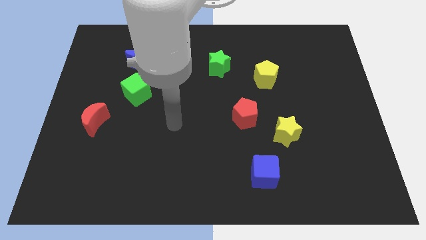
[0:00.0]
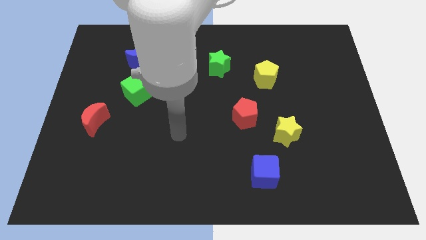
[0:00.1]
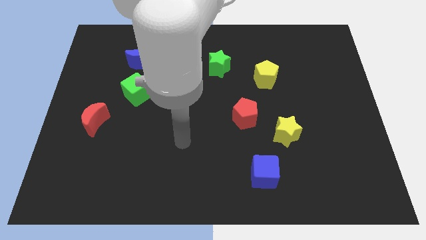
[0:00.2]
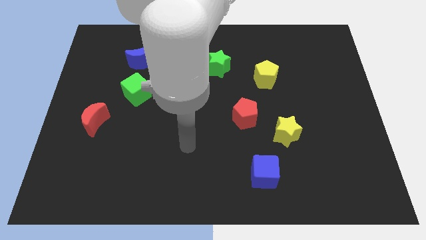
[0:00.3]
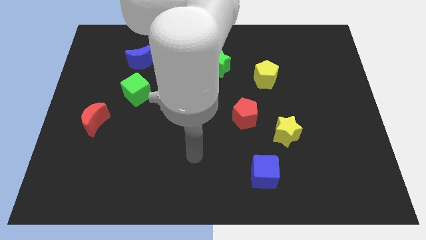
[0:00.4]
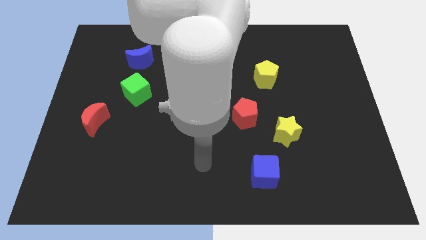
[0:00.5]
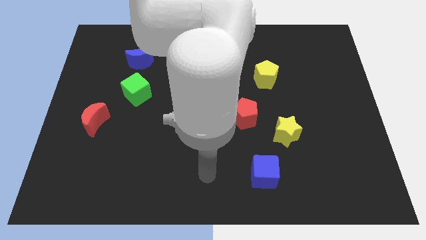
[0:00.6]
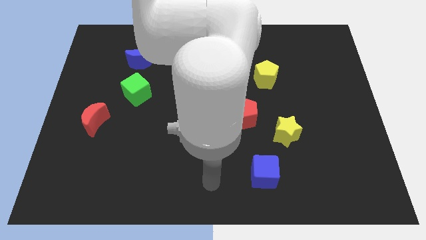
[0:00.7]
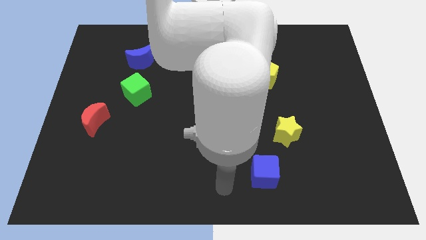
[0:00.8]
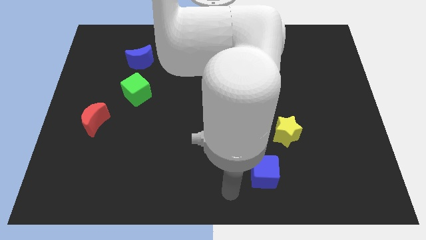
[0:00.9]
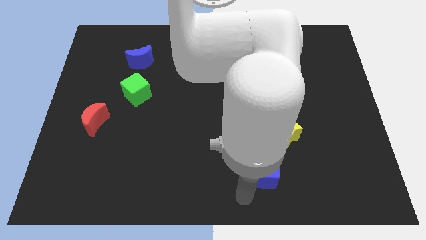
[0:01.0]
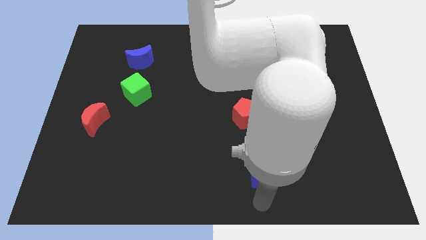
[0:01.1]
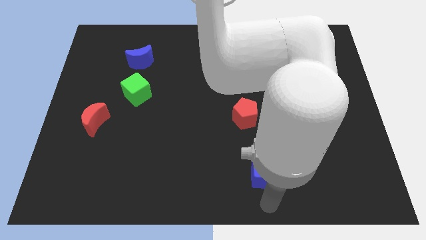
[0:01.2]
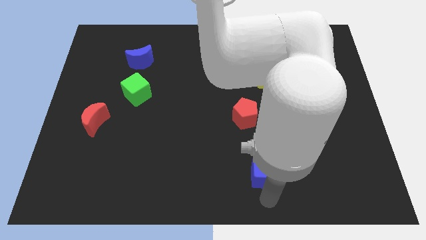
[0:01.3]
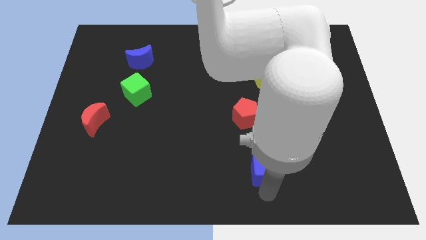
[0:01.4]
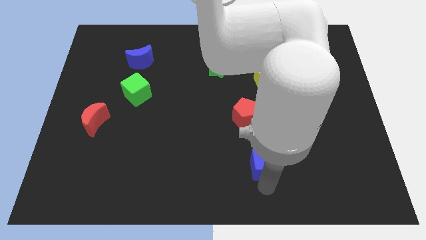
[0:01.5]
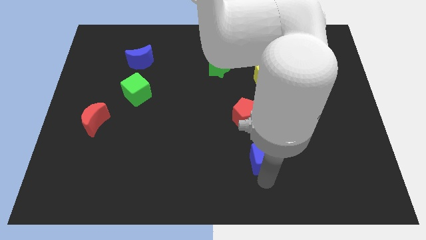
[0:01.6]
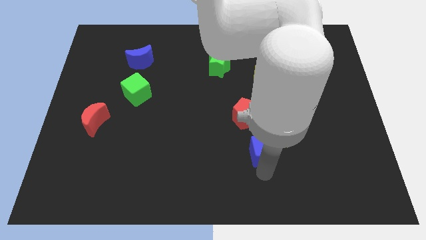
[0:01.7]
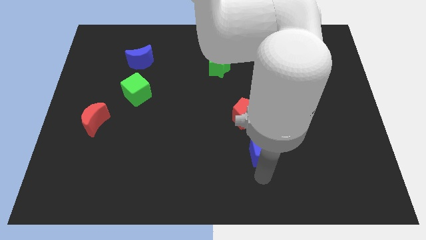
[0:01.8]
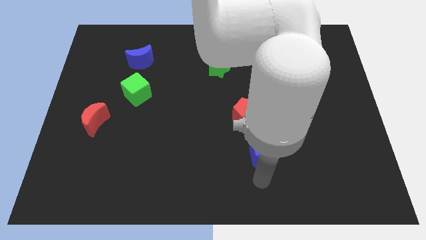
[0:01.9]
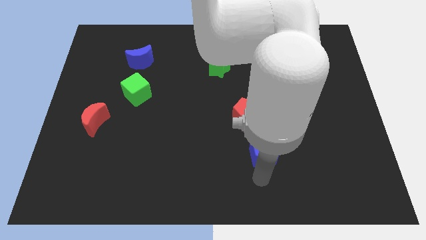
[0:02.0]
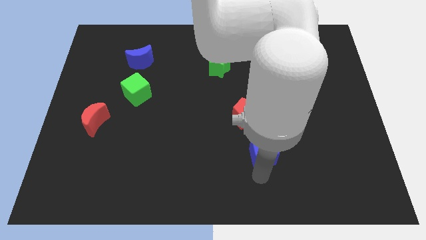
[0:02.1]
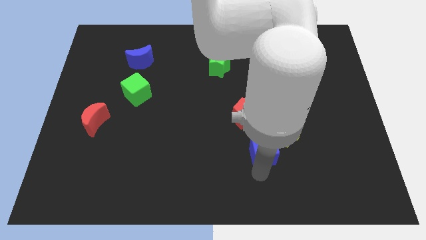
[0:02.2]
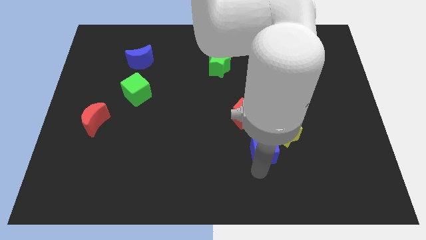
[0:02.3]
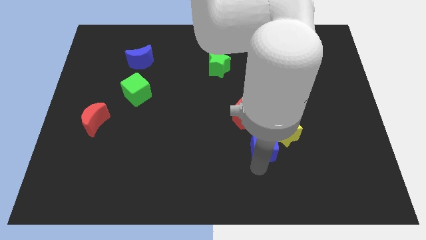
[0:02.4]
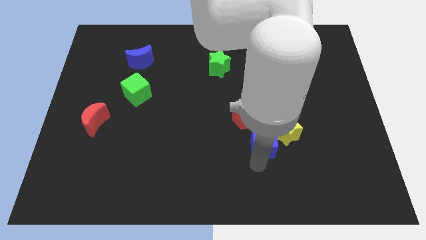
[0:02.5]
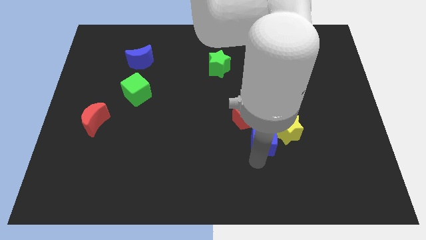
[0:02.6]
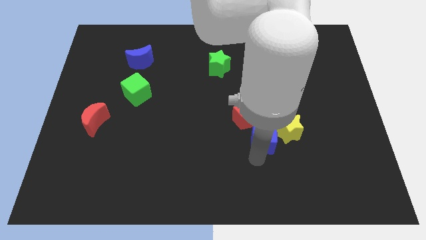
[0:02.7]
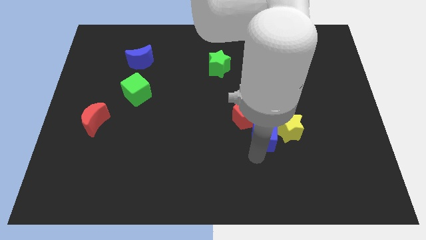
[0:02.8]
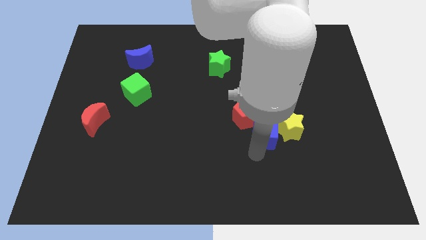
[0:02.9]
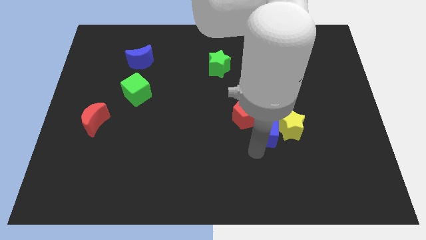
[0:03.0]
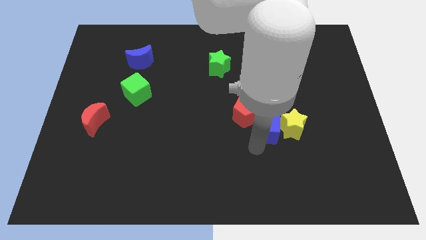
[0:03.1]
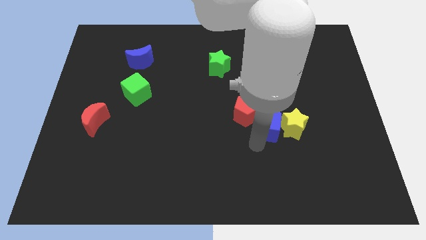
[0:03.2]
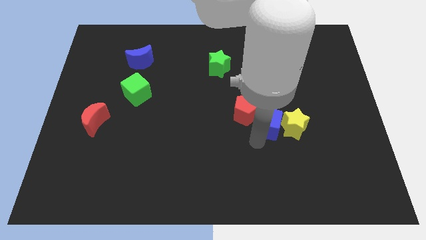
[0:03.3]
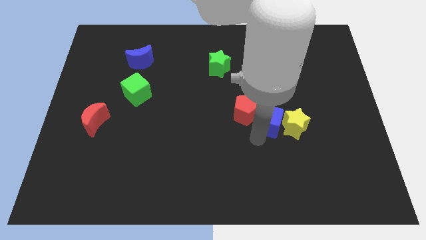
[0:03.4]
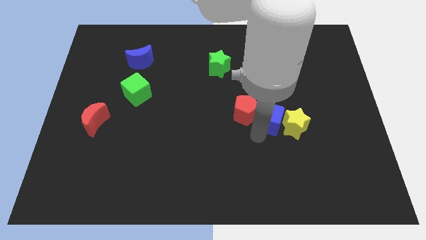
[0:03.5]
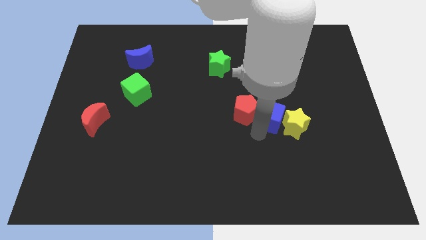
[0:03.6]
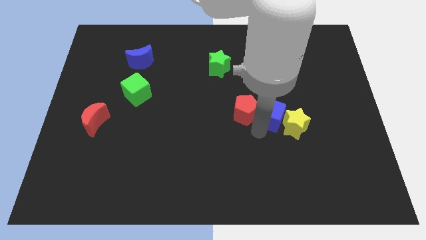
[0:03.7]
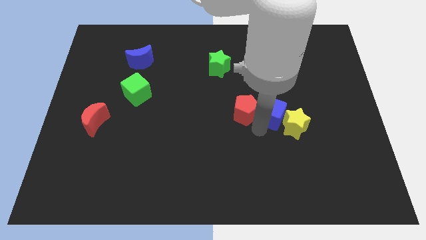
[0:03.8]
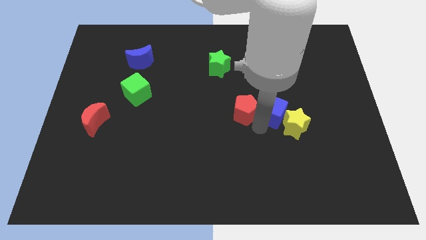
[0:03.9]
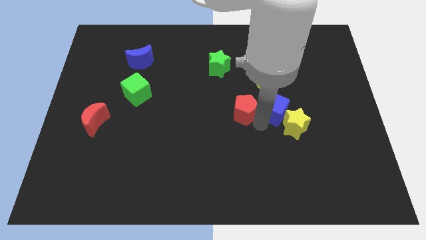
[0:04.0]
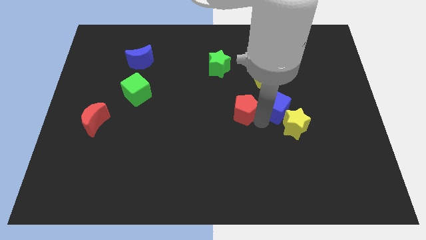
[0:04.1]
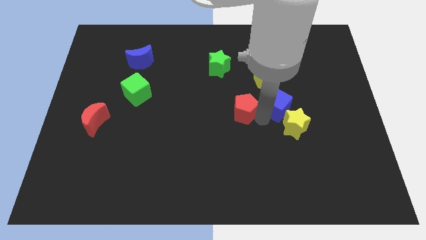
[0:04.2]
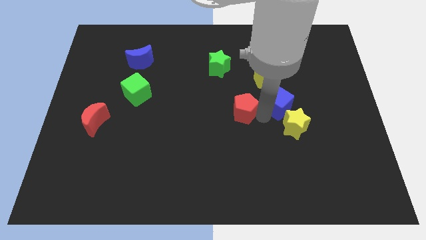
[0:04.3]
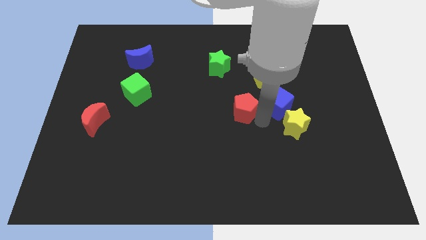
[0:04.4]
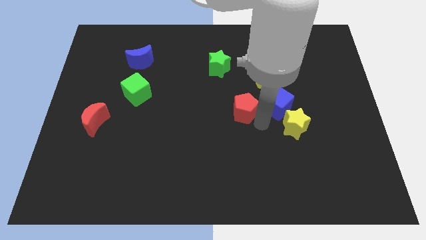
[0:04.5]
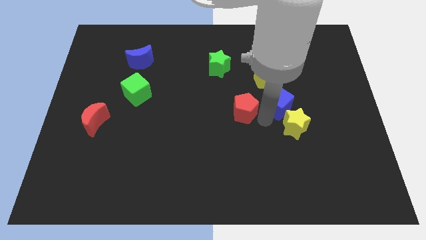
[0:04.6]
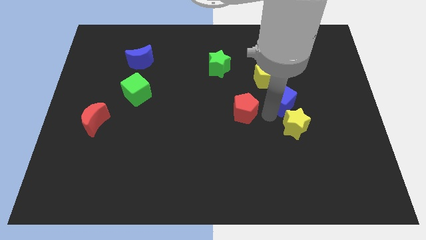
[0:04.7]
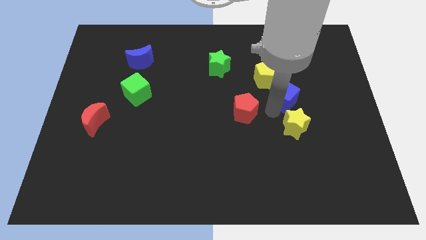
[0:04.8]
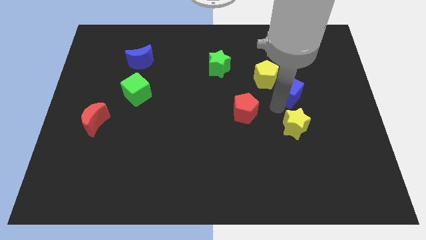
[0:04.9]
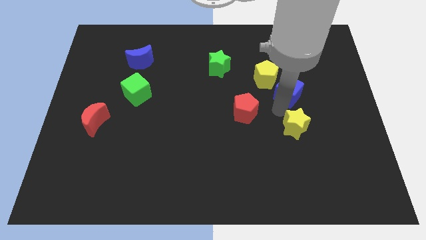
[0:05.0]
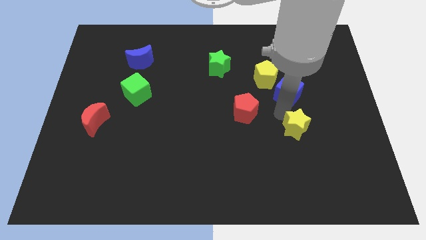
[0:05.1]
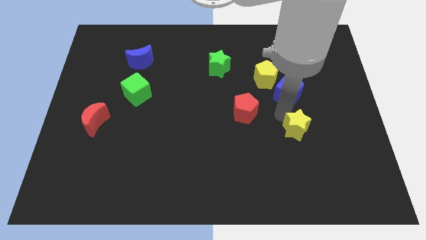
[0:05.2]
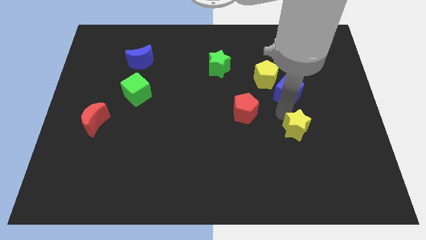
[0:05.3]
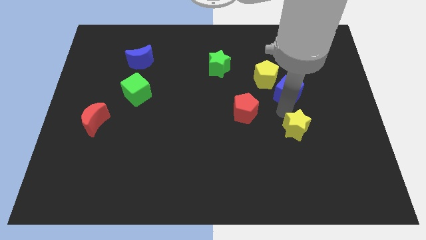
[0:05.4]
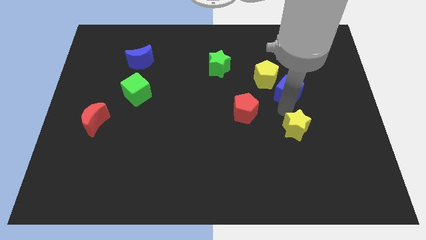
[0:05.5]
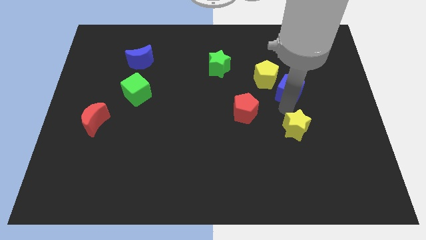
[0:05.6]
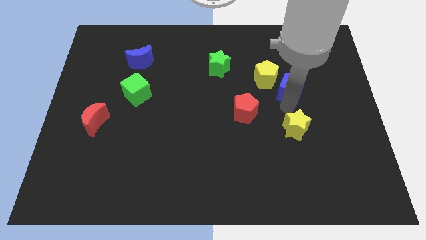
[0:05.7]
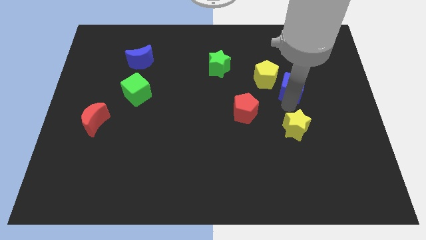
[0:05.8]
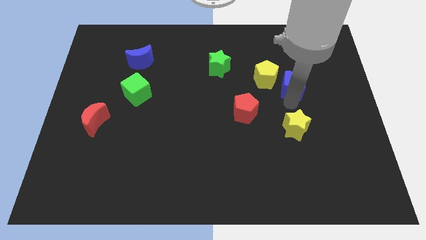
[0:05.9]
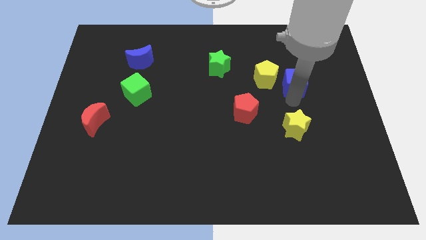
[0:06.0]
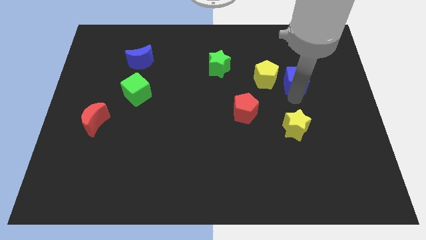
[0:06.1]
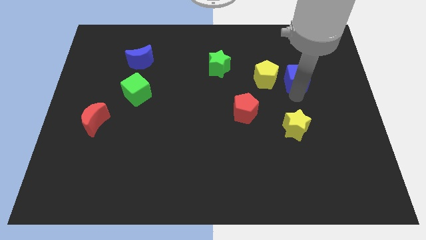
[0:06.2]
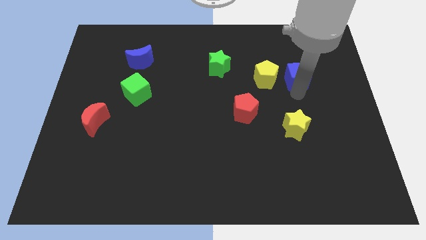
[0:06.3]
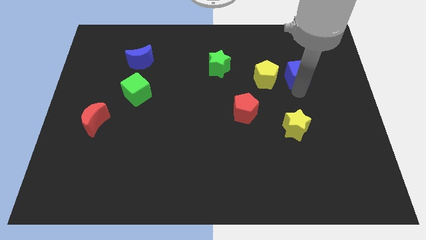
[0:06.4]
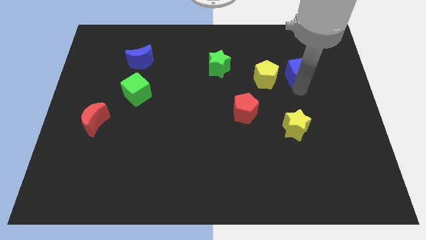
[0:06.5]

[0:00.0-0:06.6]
move the blue cube diagonally up and to the right of the yellow pentagon
